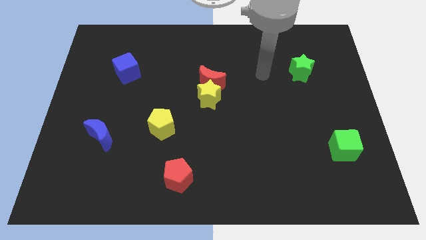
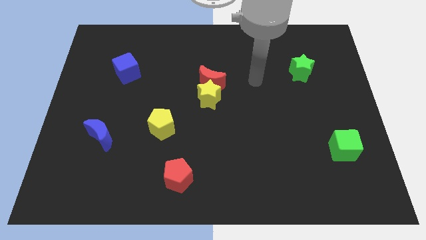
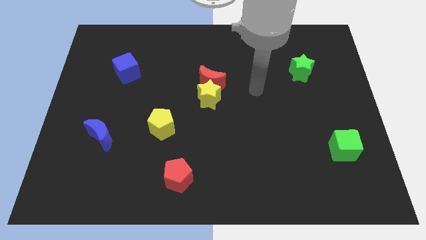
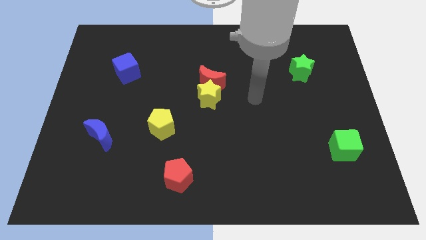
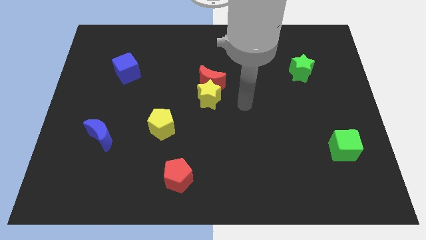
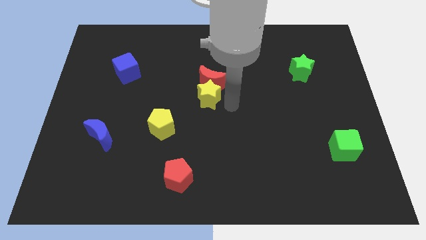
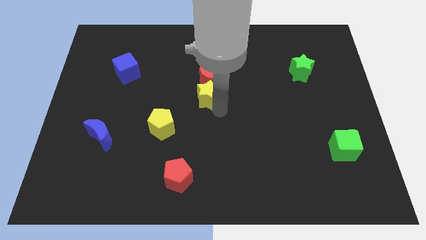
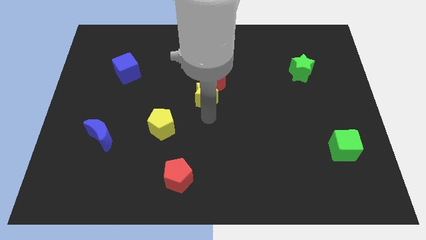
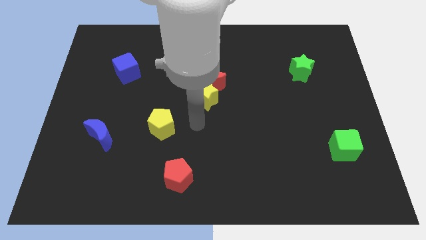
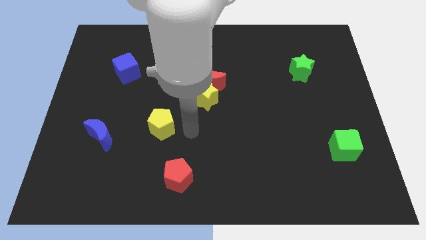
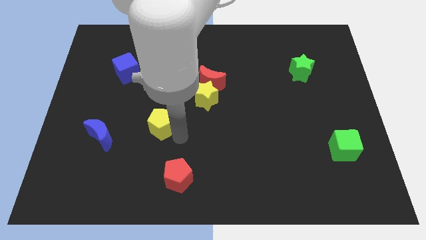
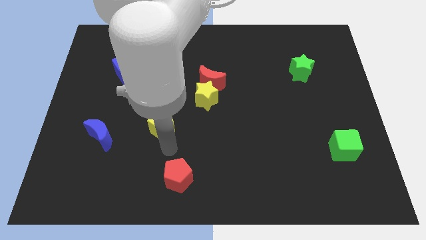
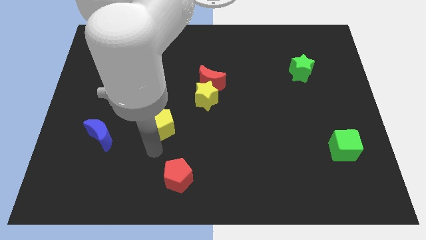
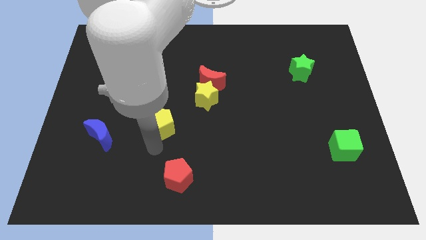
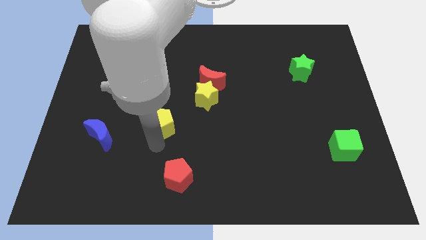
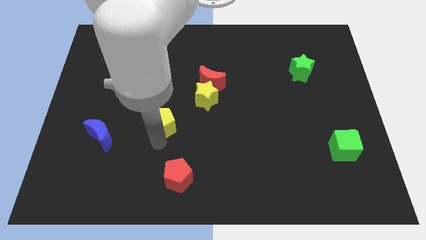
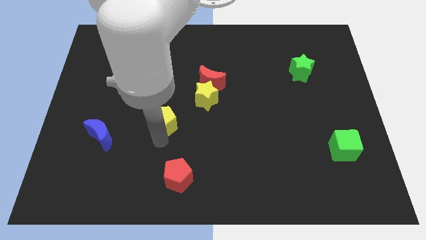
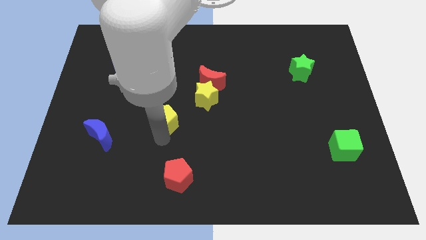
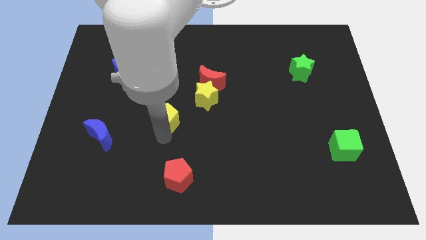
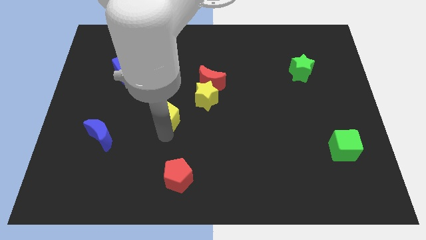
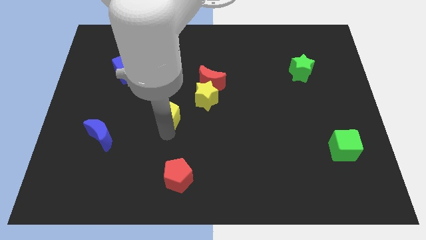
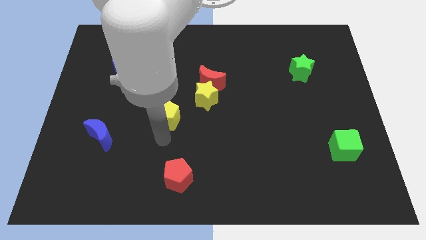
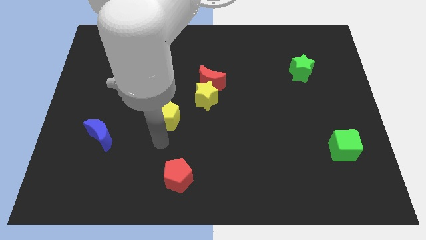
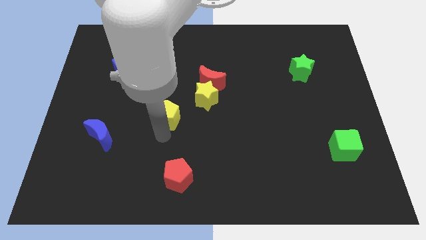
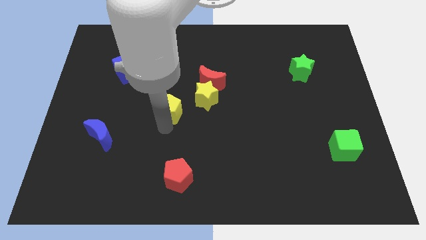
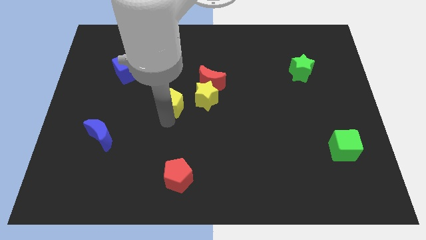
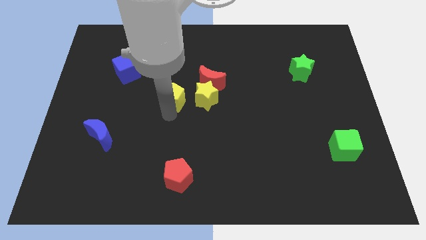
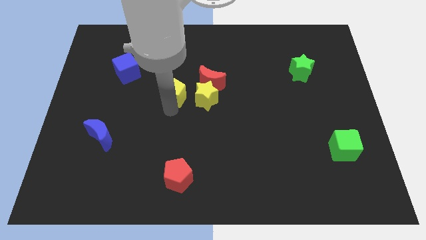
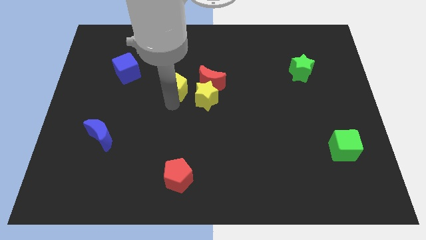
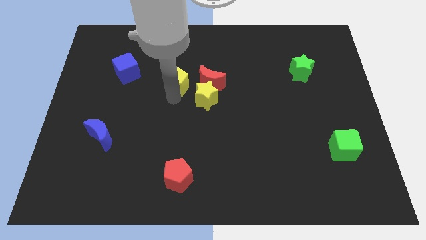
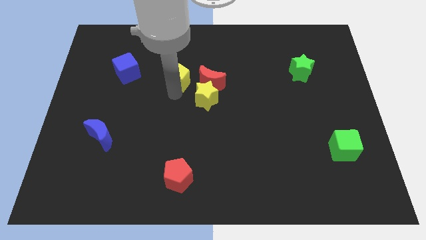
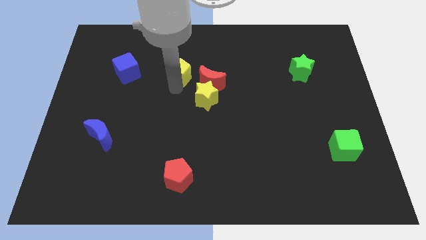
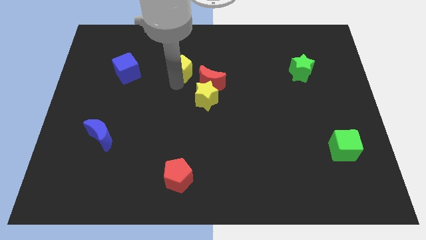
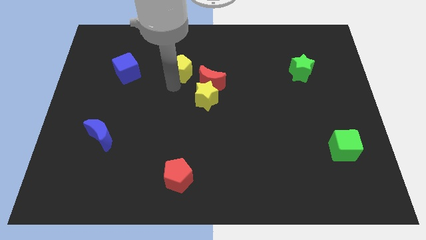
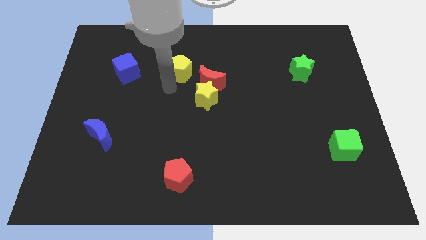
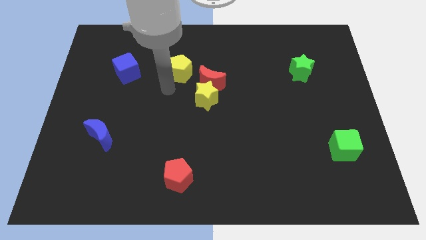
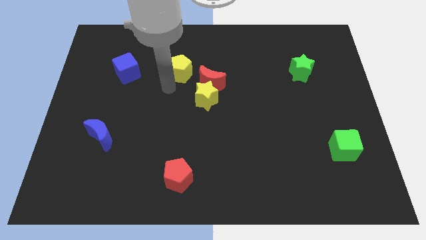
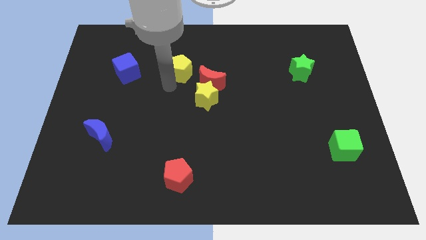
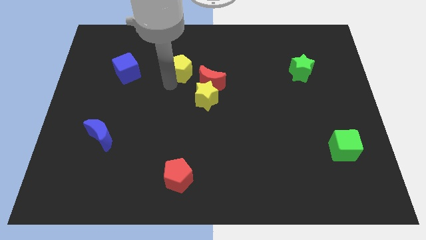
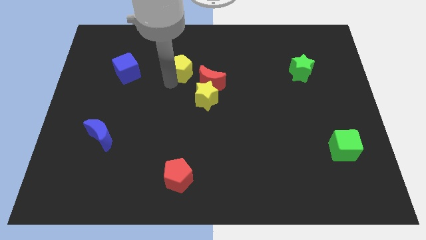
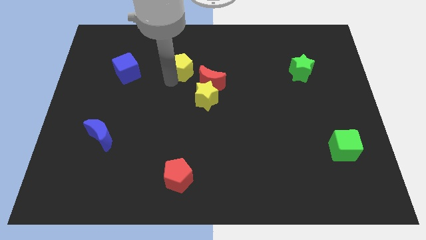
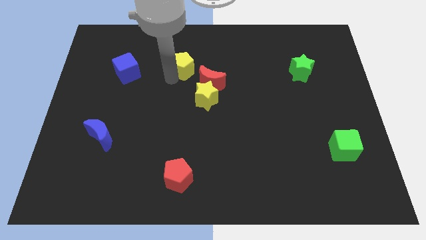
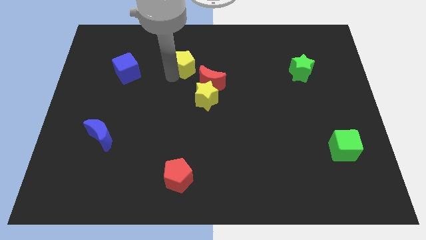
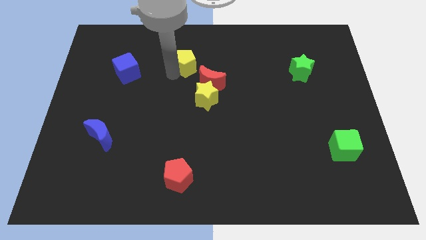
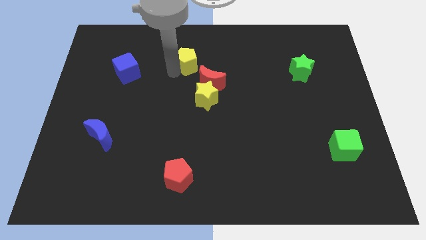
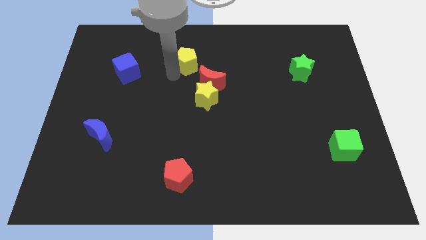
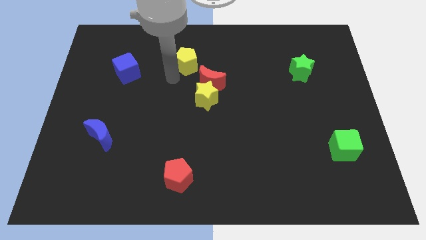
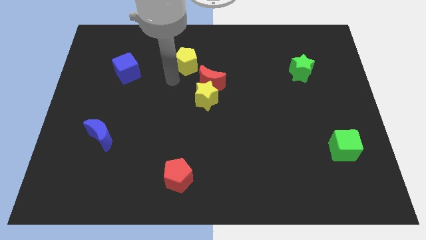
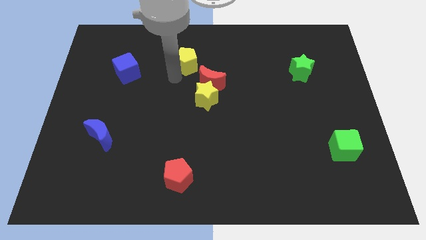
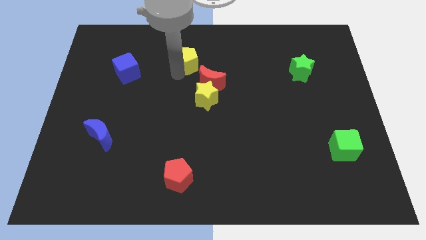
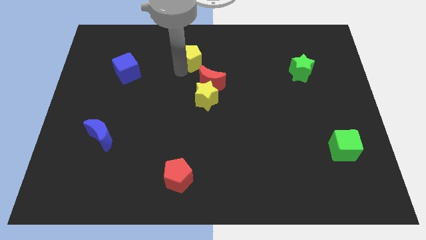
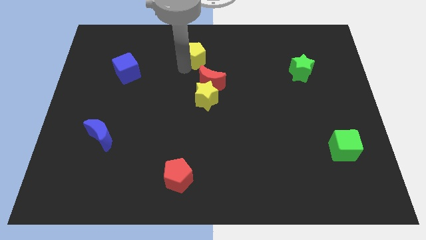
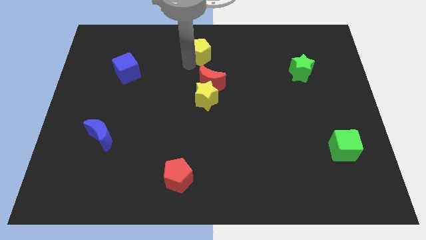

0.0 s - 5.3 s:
push the yellow pentagon to the top

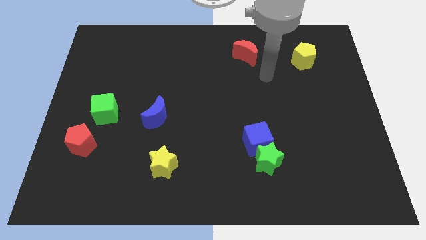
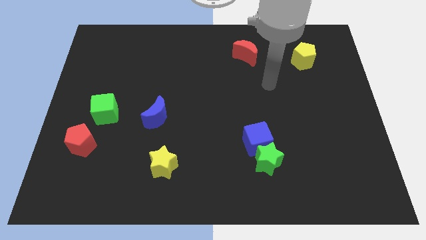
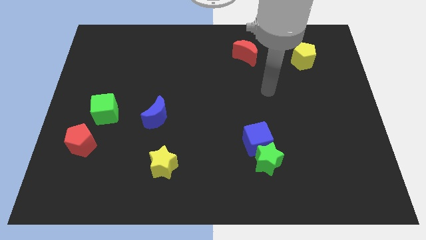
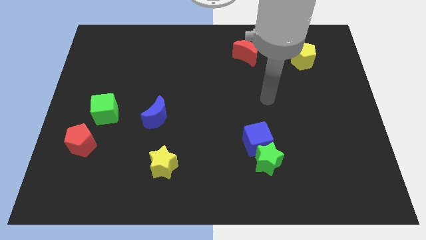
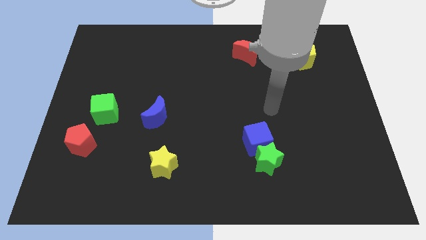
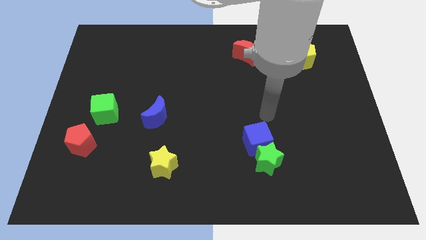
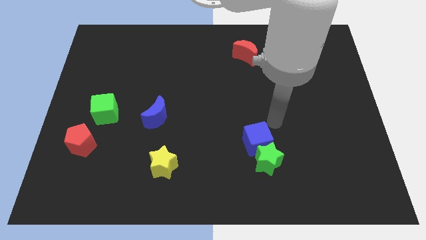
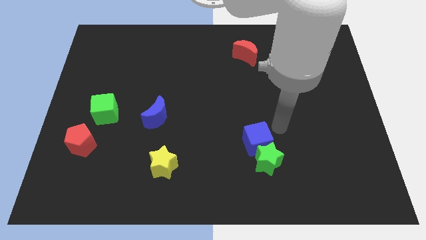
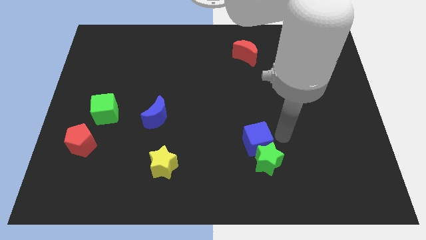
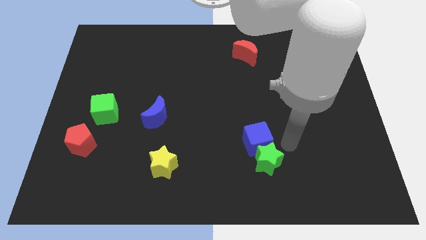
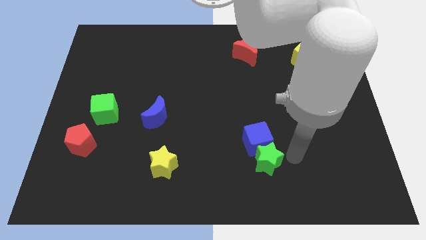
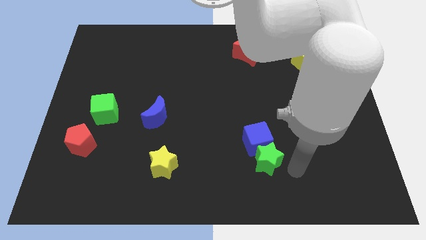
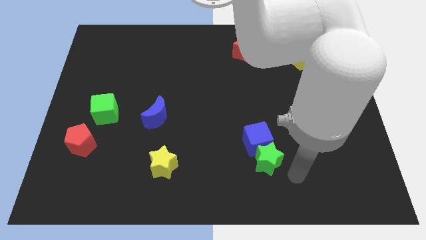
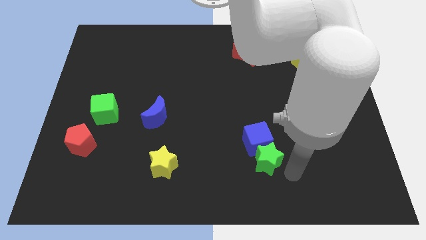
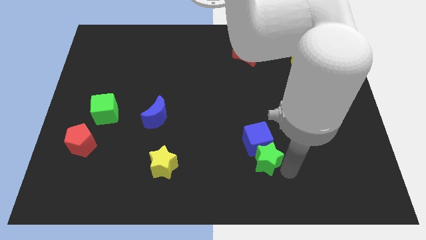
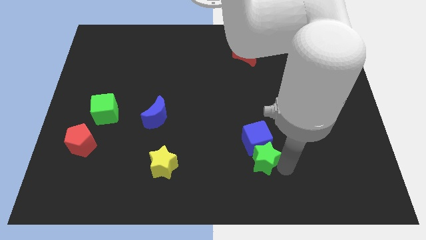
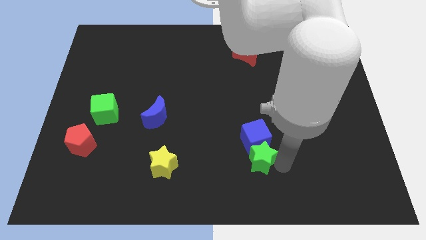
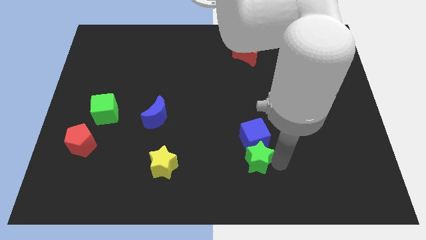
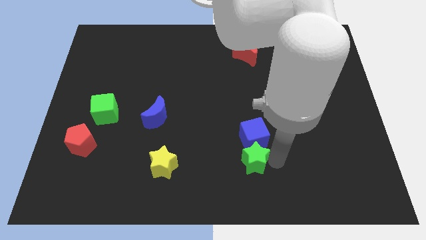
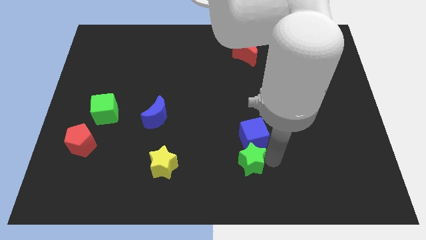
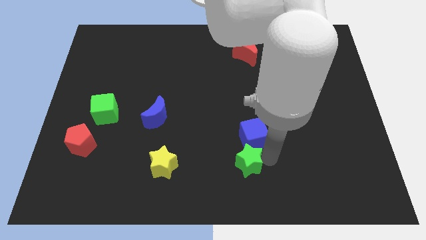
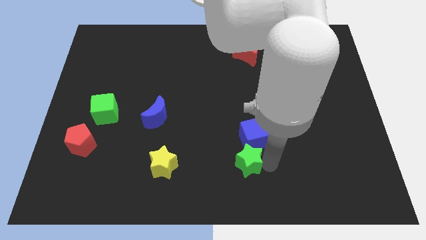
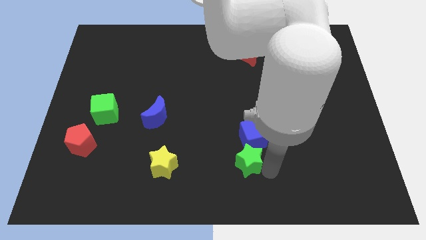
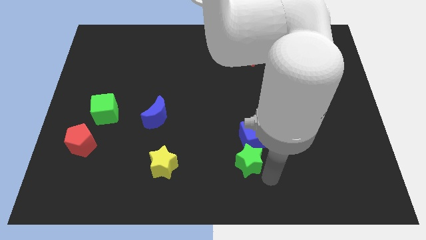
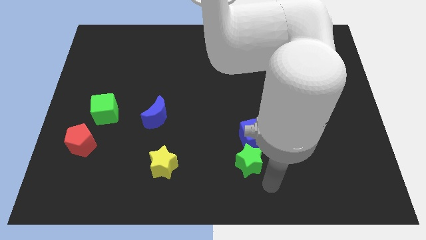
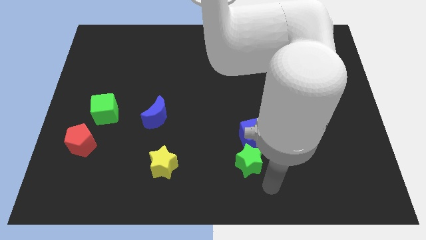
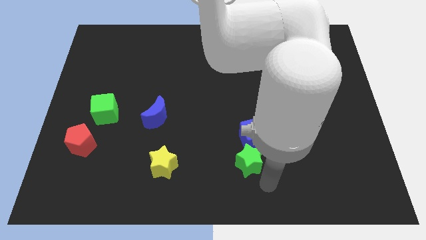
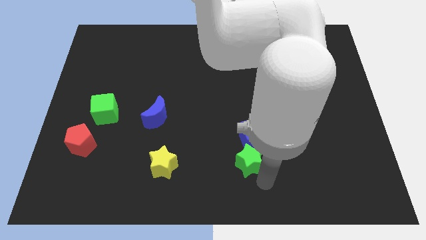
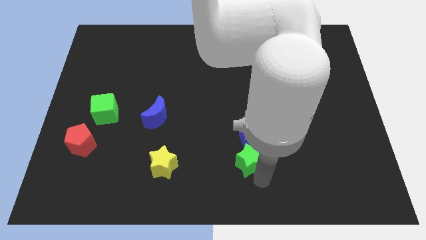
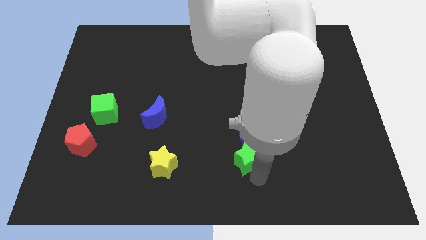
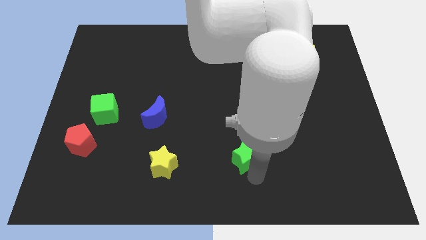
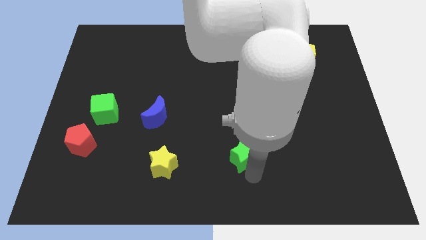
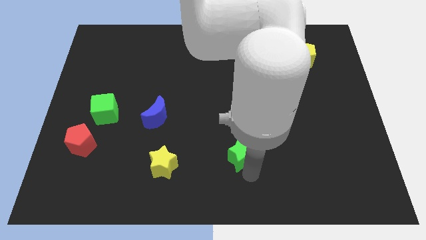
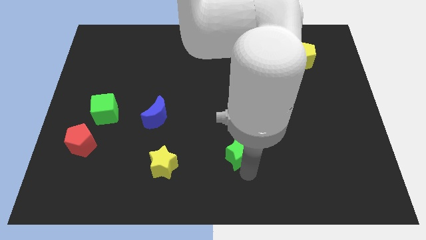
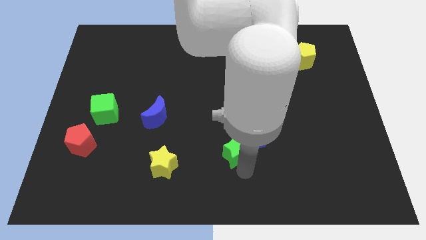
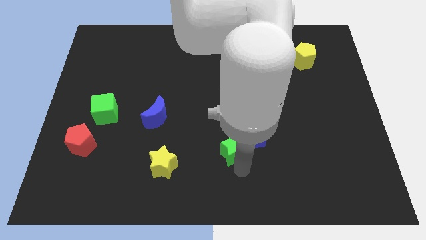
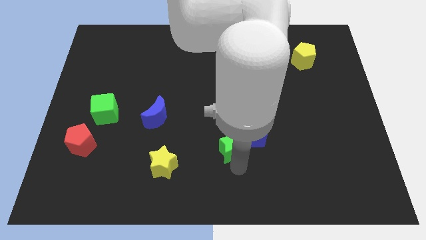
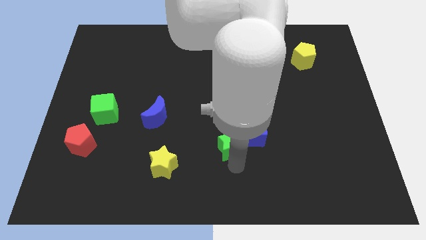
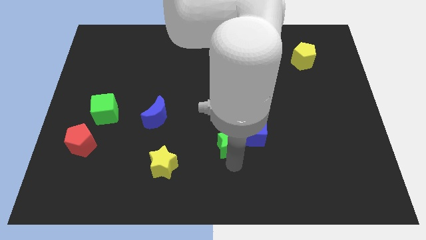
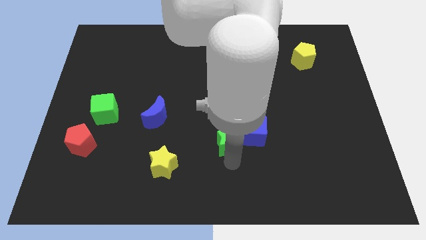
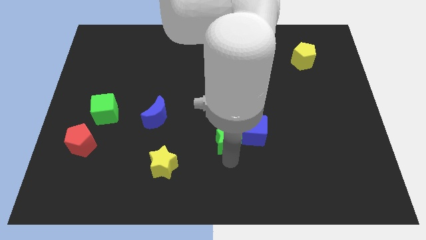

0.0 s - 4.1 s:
put the green star to the middle
